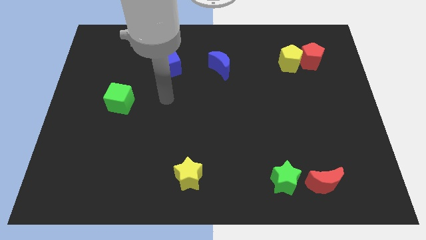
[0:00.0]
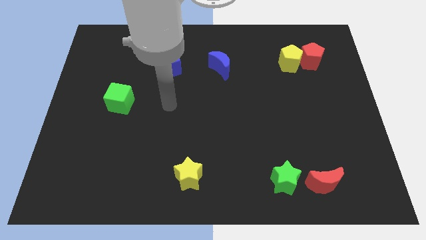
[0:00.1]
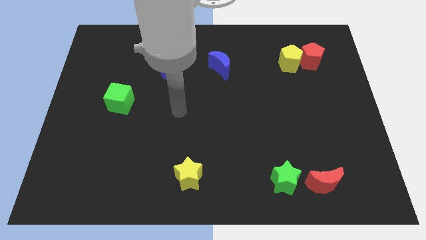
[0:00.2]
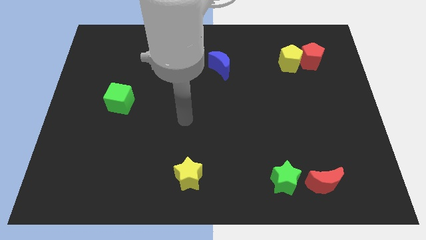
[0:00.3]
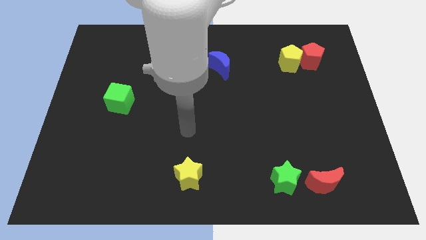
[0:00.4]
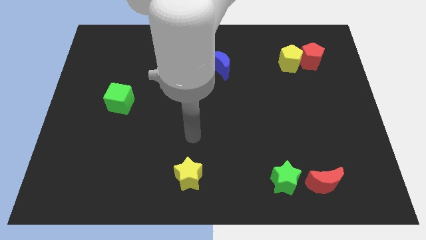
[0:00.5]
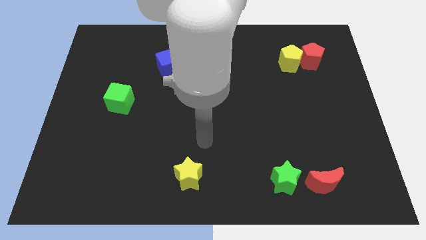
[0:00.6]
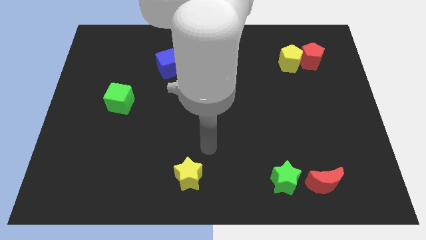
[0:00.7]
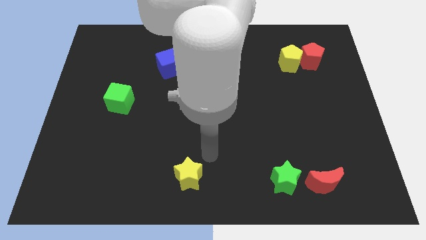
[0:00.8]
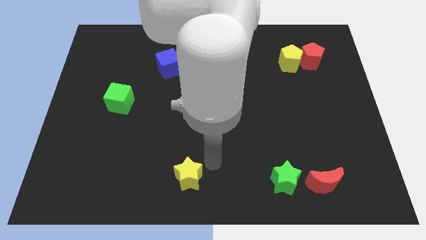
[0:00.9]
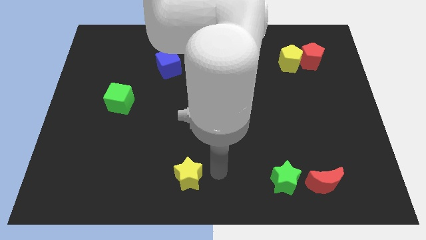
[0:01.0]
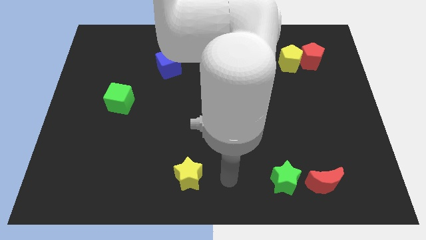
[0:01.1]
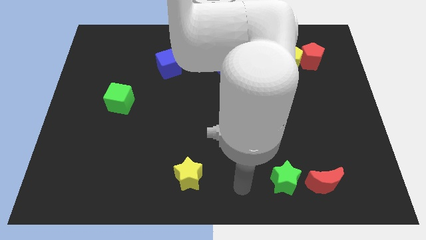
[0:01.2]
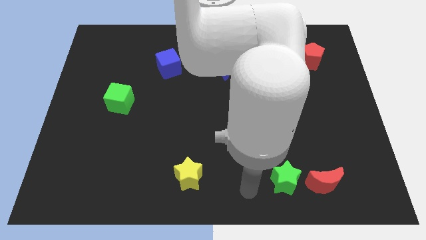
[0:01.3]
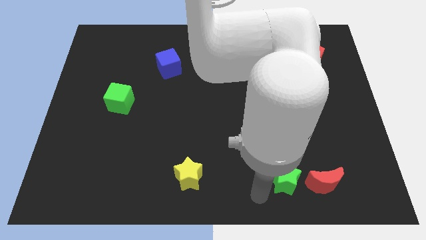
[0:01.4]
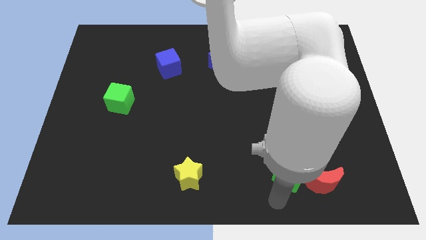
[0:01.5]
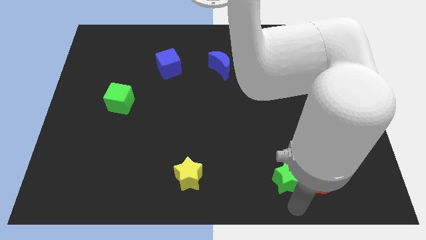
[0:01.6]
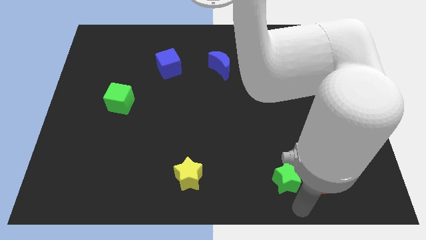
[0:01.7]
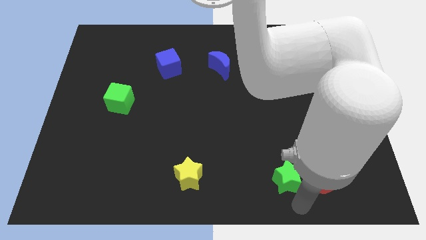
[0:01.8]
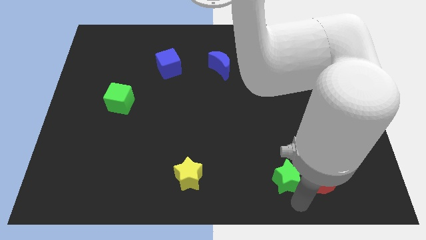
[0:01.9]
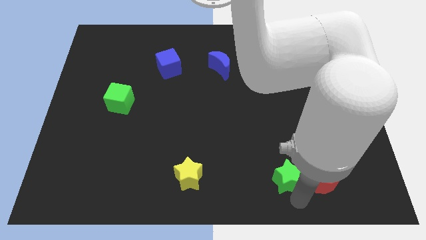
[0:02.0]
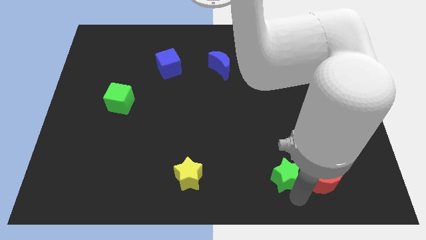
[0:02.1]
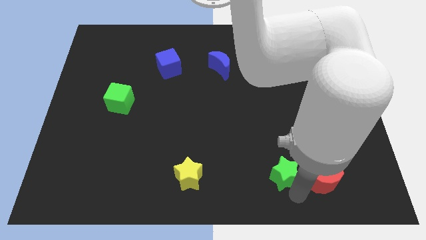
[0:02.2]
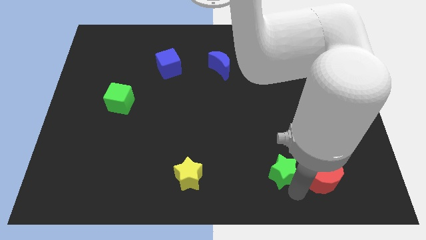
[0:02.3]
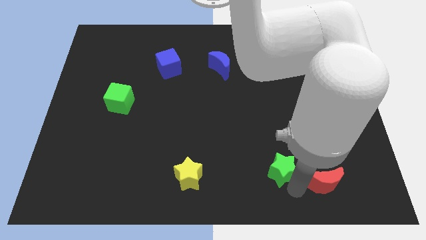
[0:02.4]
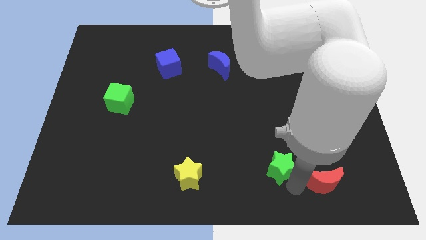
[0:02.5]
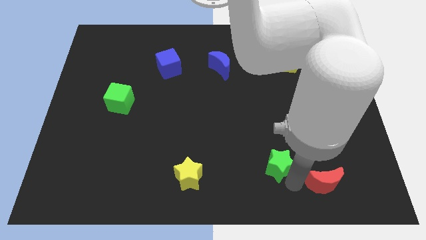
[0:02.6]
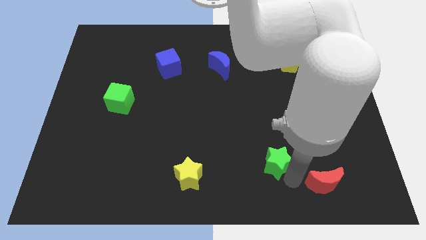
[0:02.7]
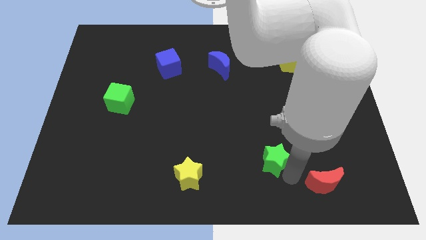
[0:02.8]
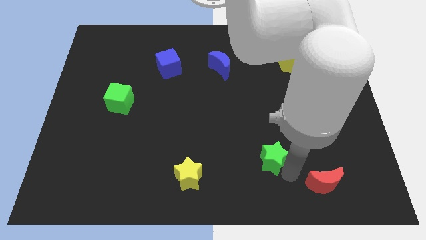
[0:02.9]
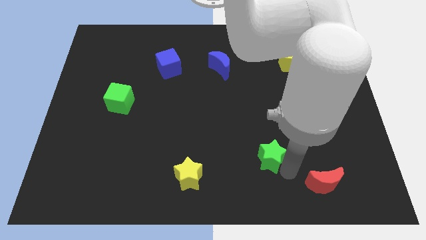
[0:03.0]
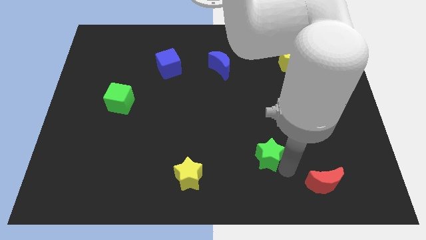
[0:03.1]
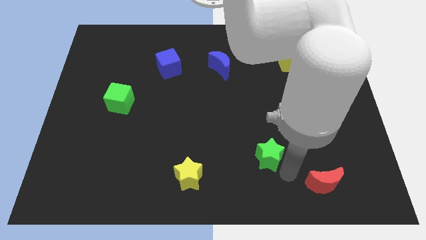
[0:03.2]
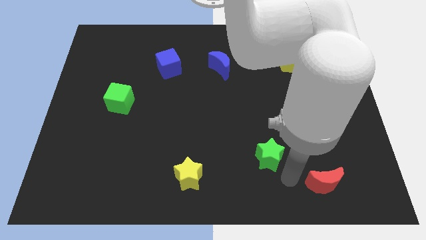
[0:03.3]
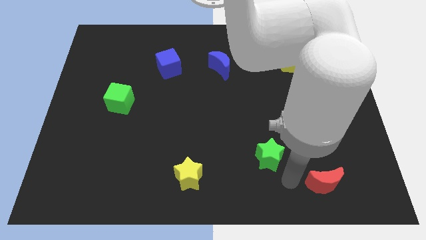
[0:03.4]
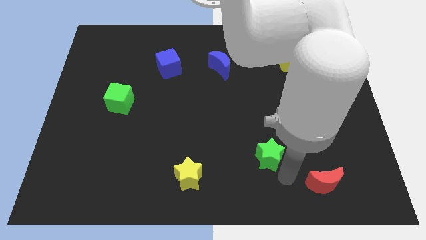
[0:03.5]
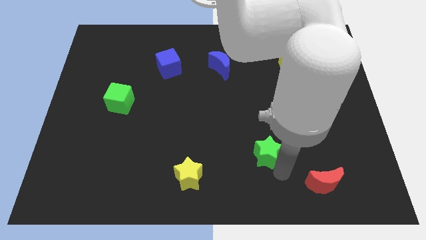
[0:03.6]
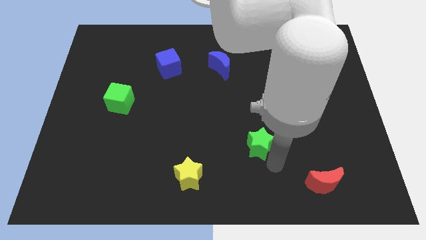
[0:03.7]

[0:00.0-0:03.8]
slide the green star a bit up and left diagonally

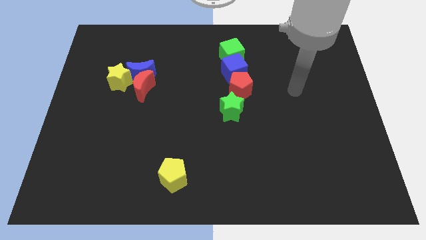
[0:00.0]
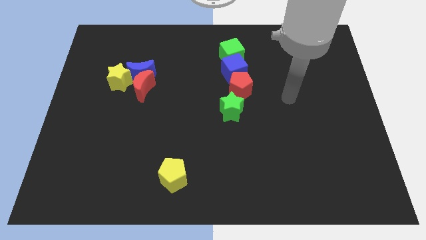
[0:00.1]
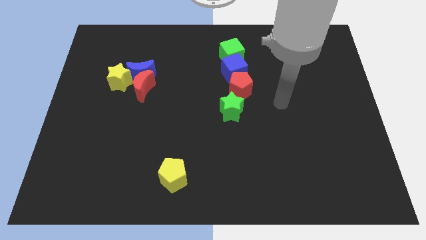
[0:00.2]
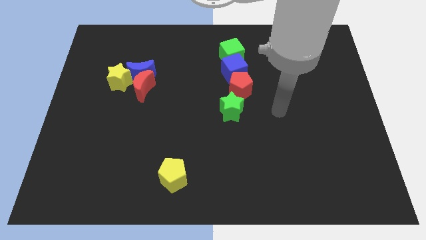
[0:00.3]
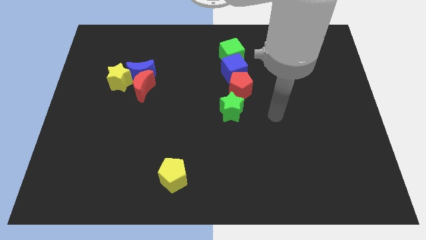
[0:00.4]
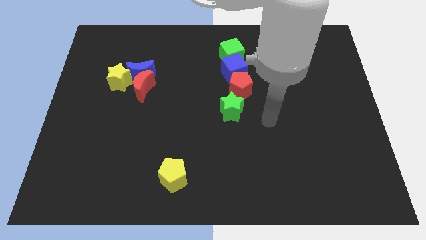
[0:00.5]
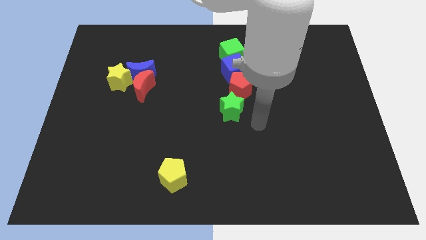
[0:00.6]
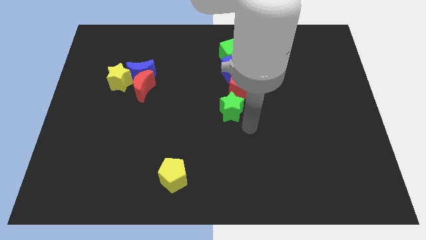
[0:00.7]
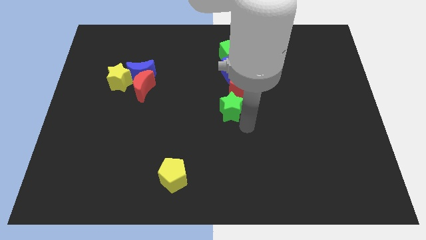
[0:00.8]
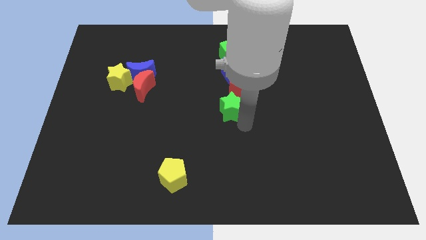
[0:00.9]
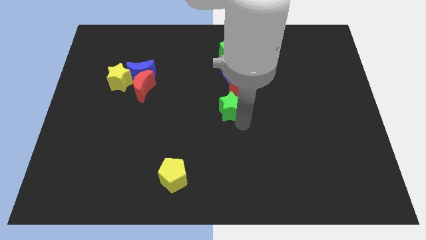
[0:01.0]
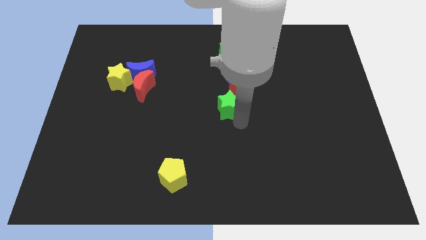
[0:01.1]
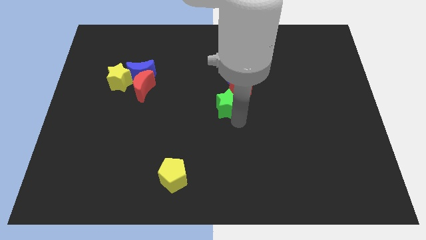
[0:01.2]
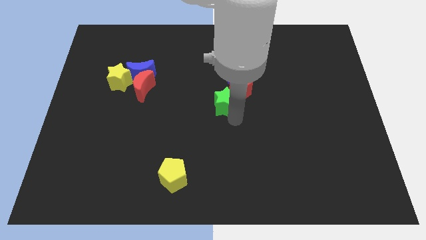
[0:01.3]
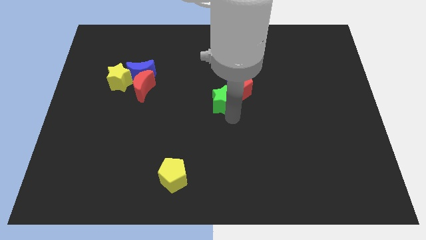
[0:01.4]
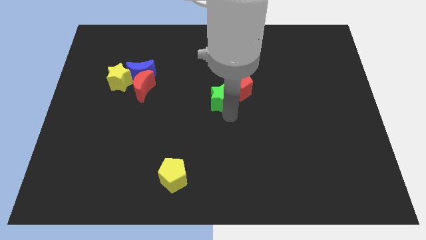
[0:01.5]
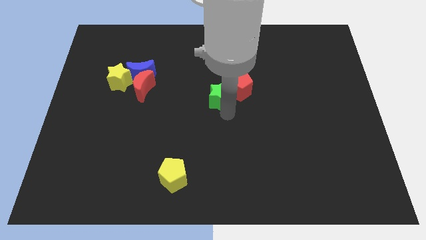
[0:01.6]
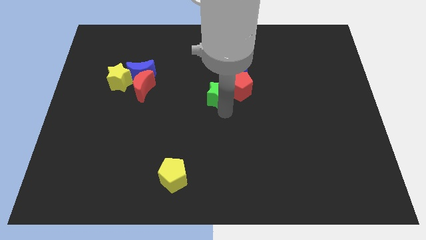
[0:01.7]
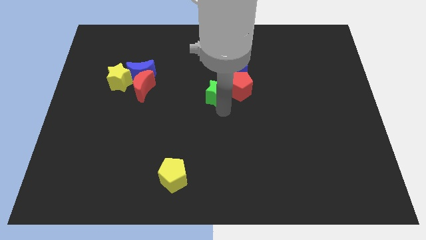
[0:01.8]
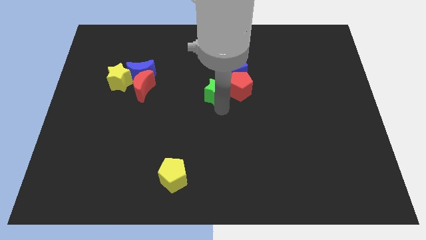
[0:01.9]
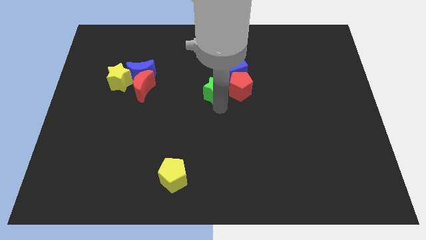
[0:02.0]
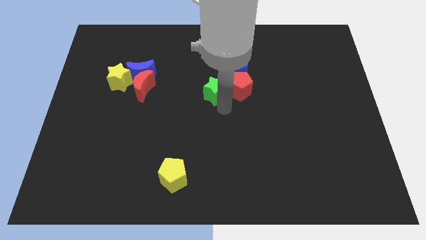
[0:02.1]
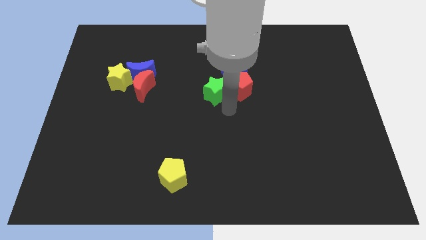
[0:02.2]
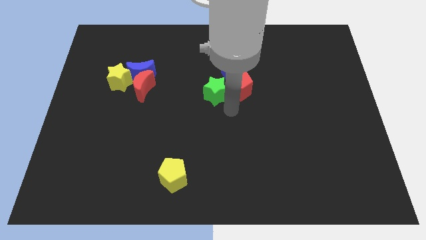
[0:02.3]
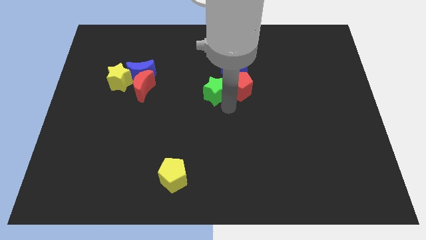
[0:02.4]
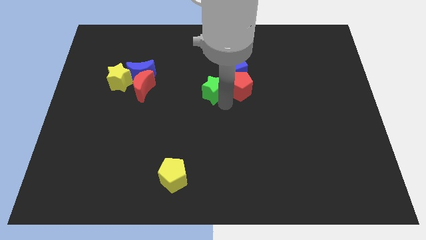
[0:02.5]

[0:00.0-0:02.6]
slightly move the green star upwards and left

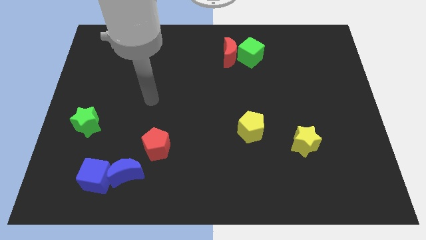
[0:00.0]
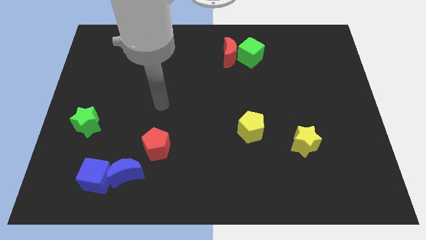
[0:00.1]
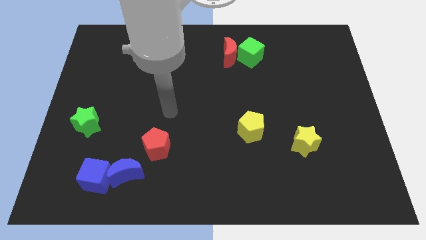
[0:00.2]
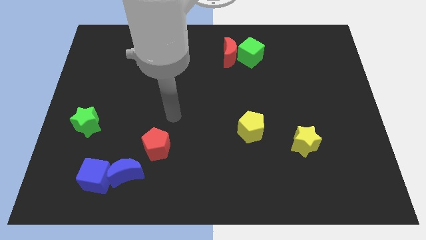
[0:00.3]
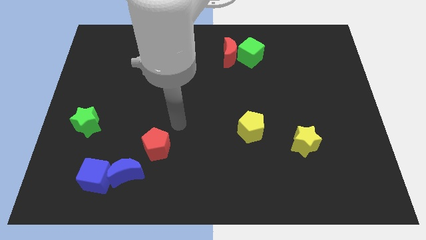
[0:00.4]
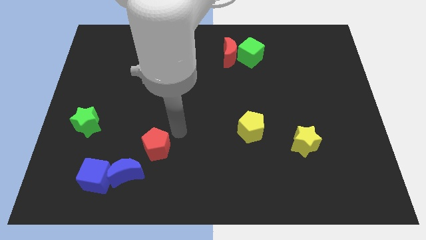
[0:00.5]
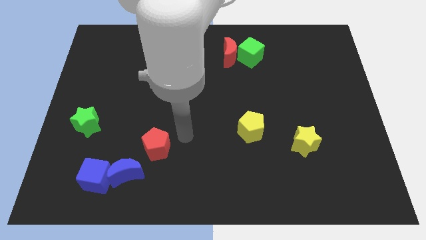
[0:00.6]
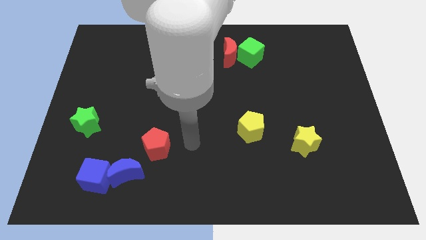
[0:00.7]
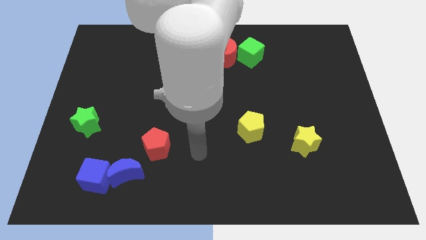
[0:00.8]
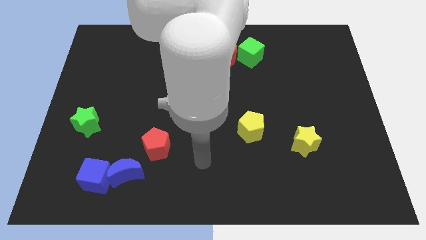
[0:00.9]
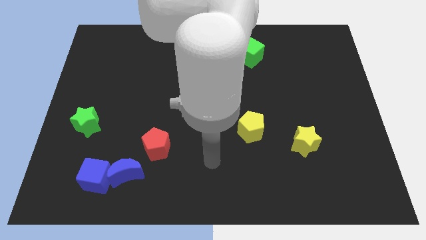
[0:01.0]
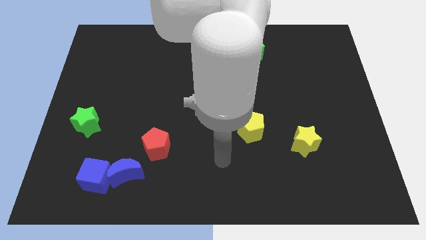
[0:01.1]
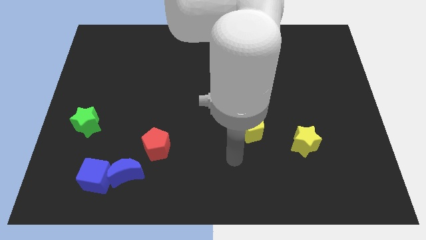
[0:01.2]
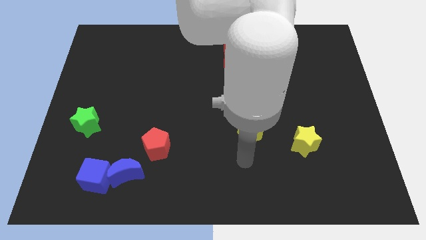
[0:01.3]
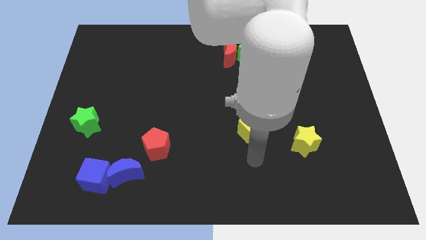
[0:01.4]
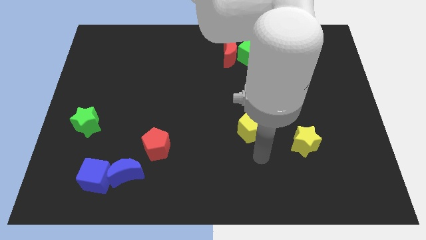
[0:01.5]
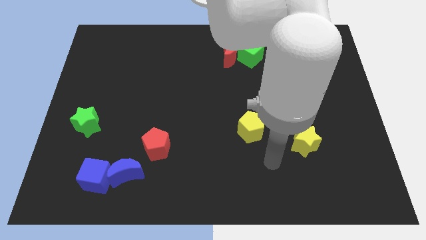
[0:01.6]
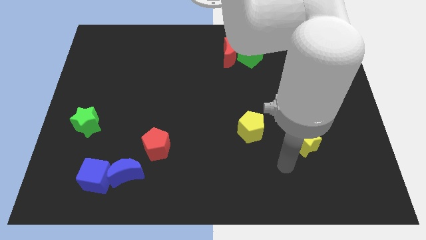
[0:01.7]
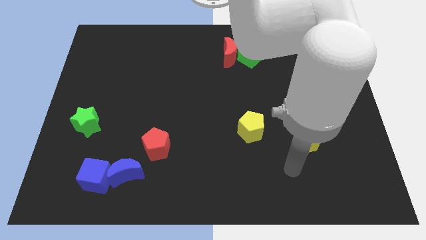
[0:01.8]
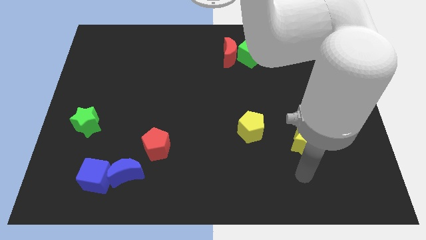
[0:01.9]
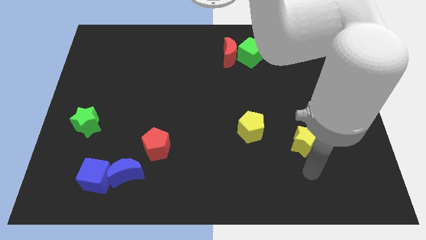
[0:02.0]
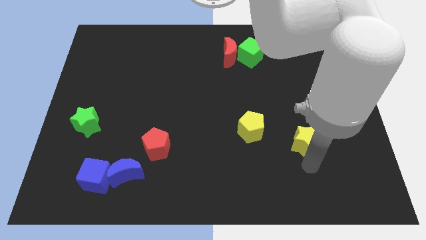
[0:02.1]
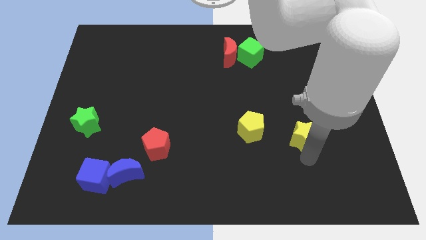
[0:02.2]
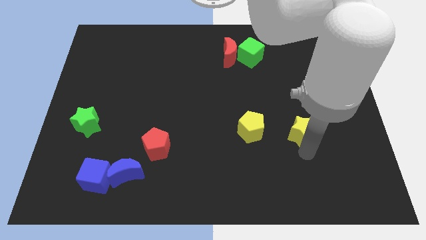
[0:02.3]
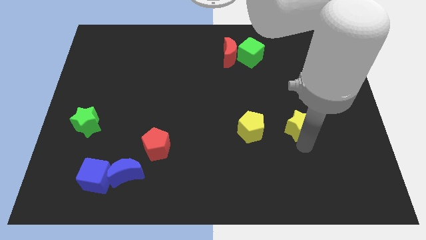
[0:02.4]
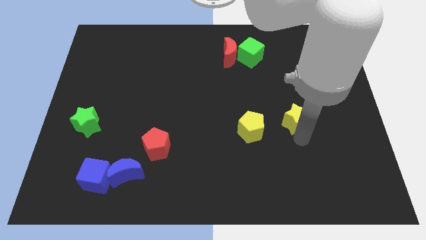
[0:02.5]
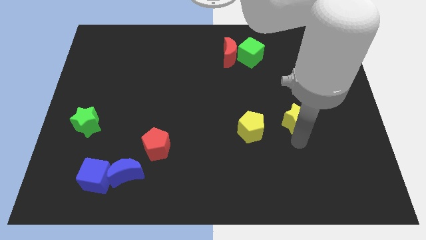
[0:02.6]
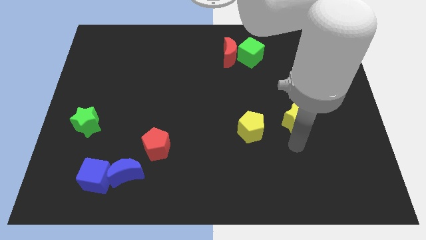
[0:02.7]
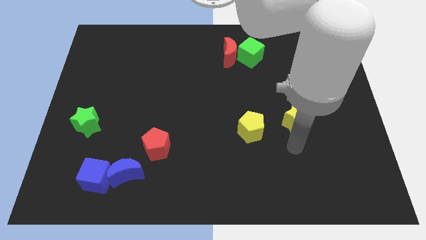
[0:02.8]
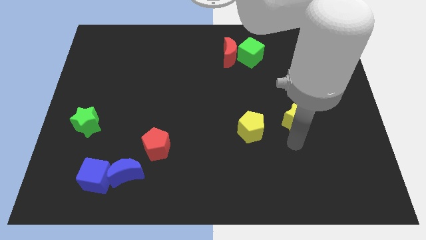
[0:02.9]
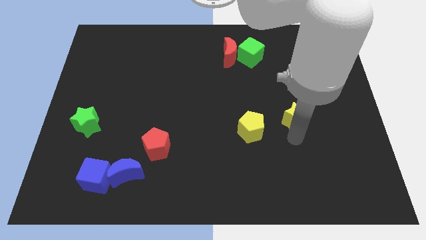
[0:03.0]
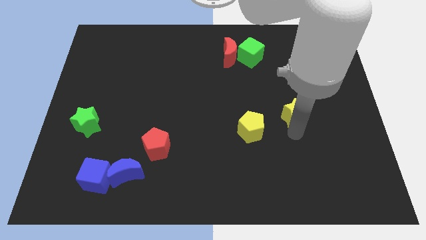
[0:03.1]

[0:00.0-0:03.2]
push the yellow star slightly upwards
